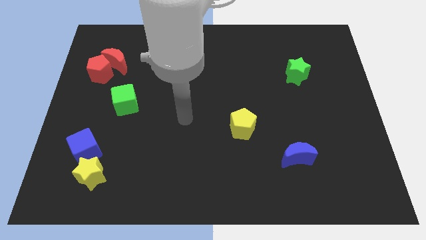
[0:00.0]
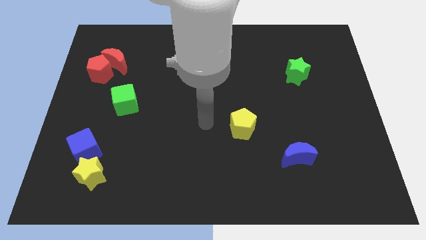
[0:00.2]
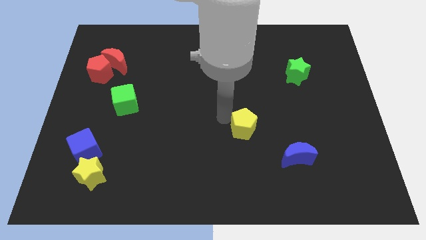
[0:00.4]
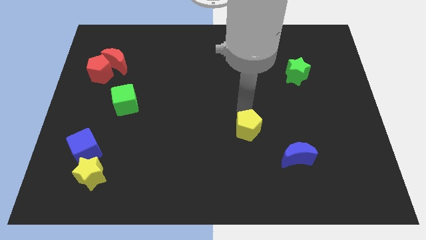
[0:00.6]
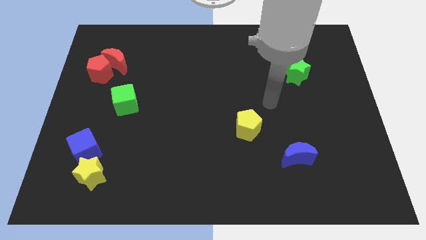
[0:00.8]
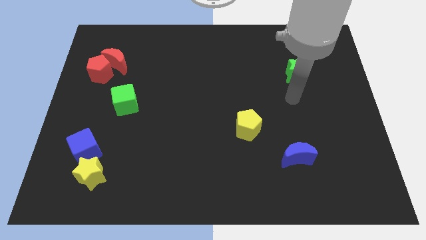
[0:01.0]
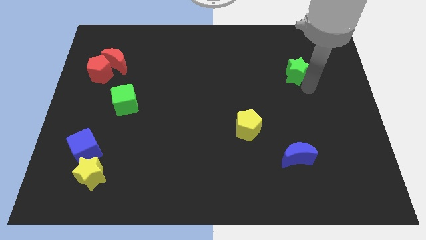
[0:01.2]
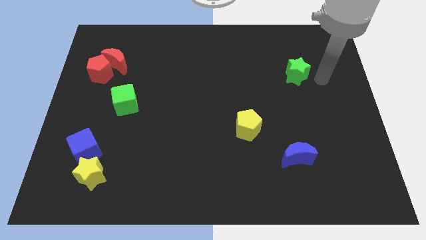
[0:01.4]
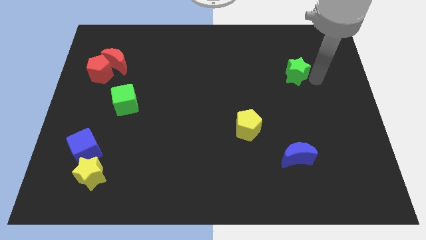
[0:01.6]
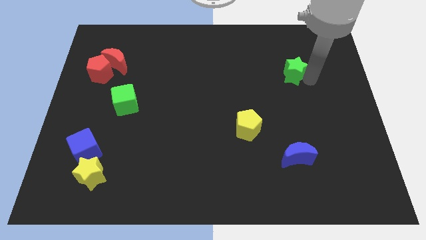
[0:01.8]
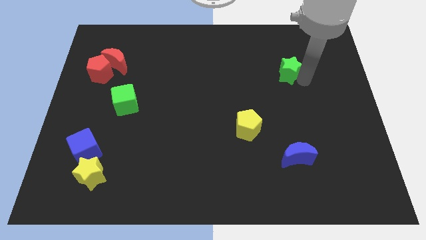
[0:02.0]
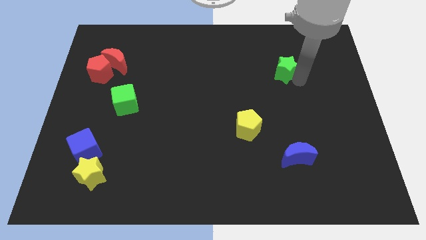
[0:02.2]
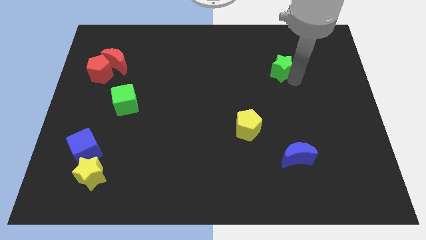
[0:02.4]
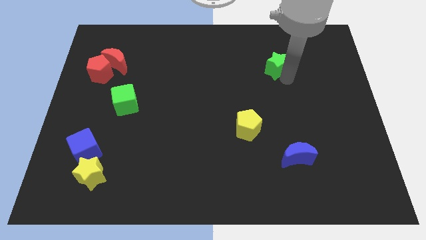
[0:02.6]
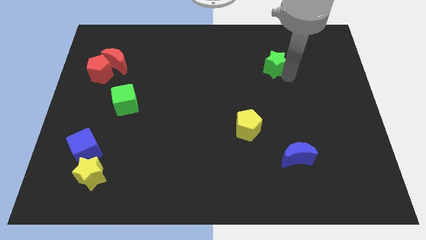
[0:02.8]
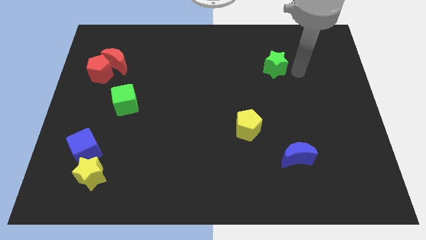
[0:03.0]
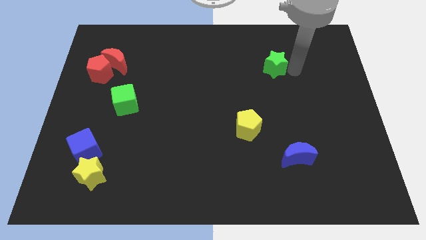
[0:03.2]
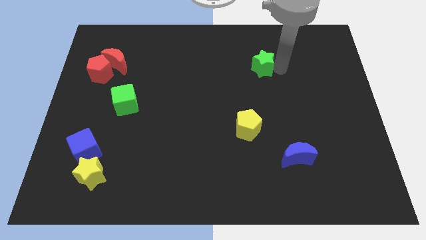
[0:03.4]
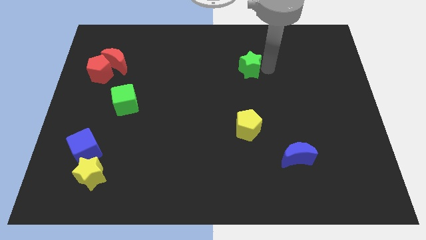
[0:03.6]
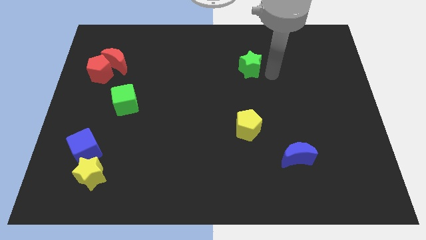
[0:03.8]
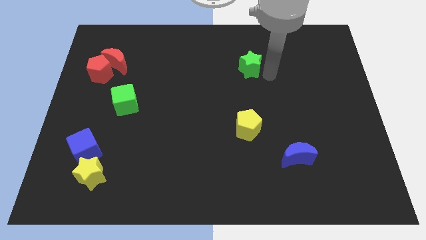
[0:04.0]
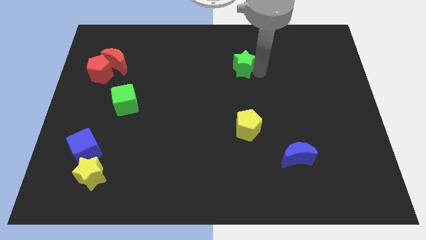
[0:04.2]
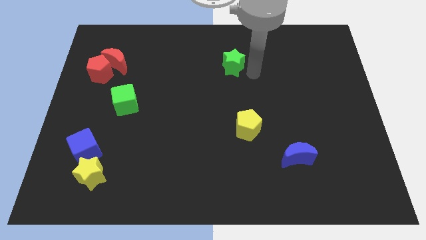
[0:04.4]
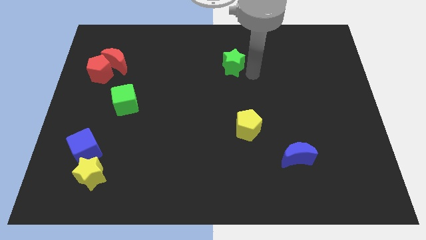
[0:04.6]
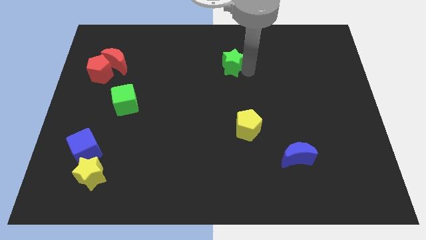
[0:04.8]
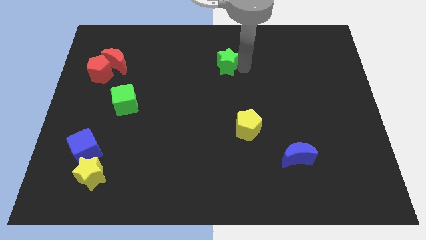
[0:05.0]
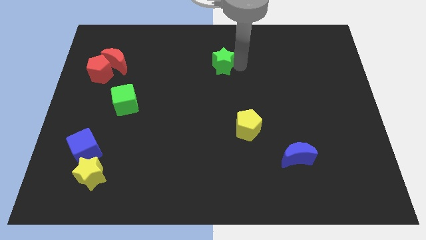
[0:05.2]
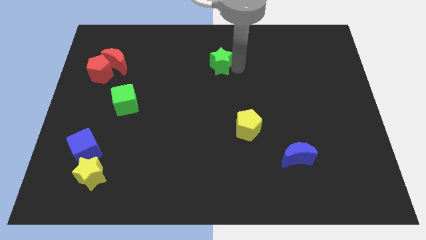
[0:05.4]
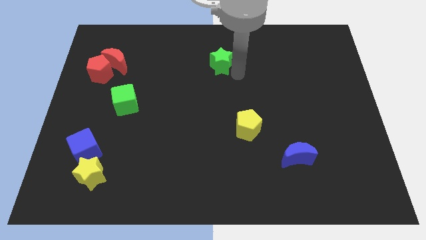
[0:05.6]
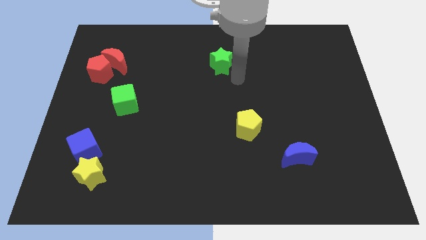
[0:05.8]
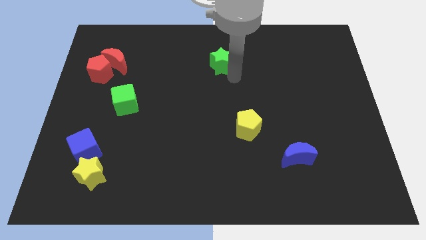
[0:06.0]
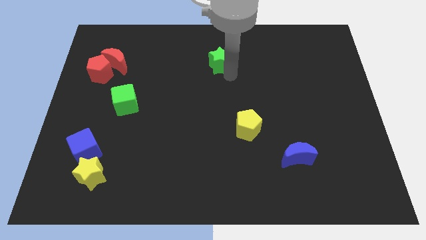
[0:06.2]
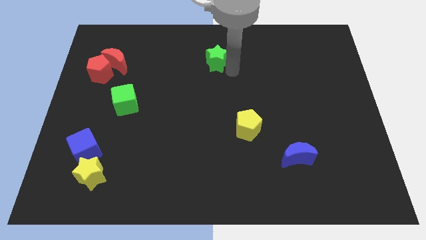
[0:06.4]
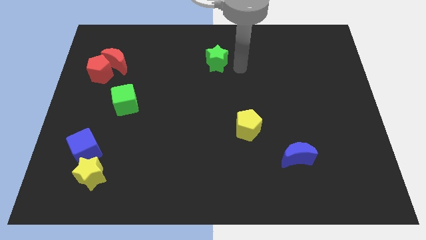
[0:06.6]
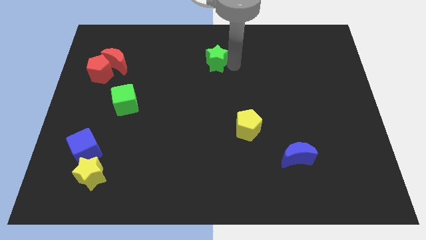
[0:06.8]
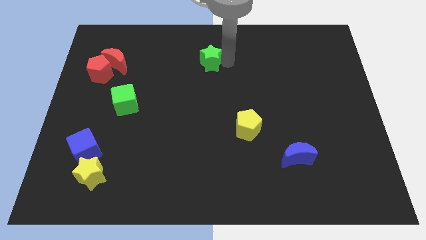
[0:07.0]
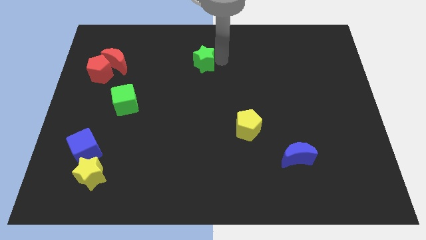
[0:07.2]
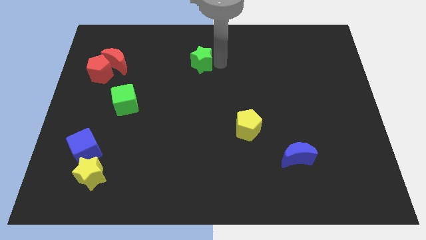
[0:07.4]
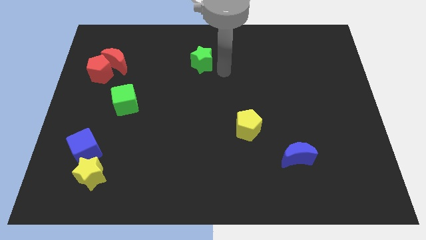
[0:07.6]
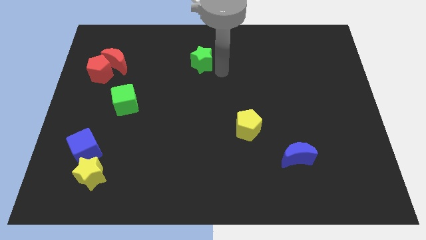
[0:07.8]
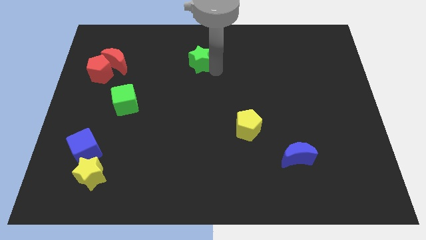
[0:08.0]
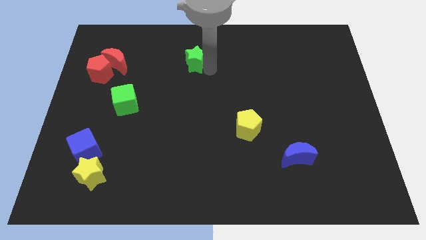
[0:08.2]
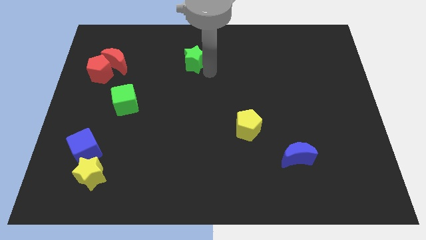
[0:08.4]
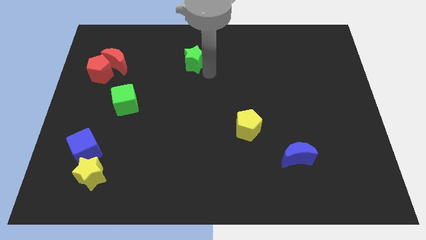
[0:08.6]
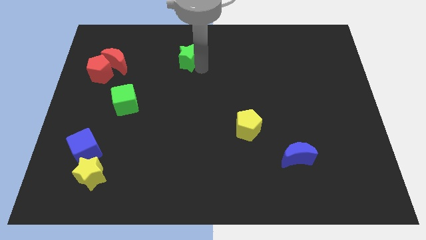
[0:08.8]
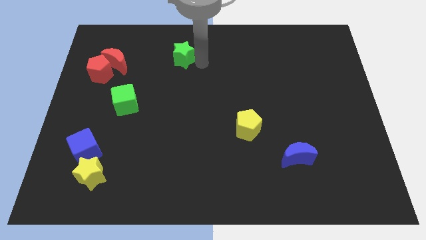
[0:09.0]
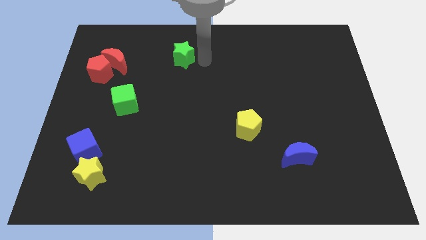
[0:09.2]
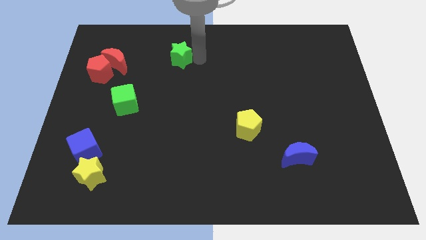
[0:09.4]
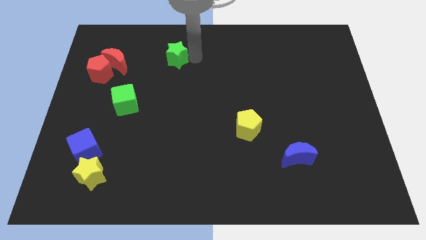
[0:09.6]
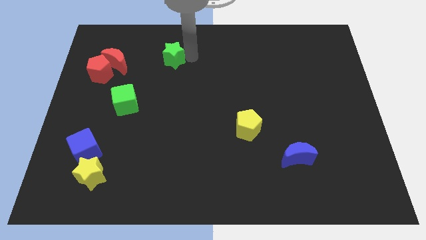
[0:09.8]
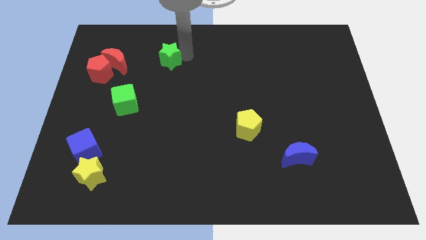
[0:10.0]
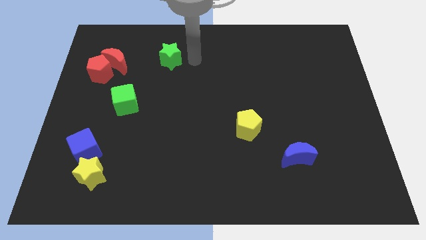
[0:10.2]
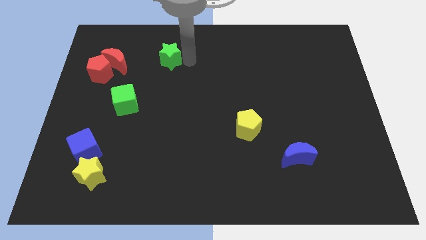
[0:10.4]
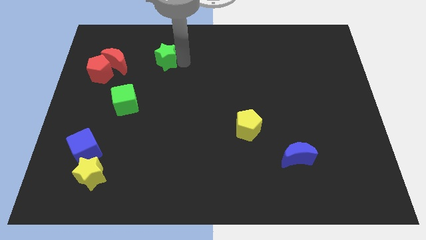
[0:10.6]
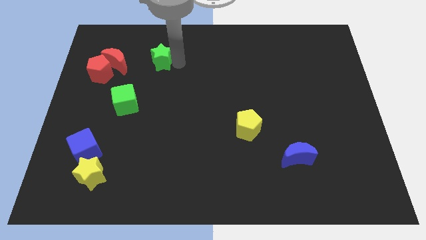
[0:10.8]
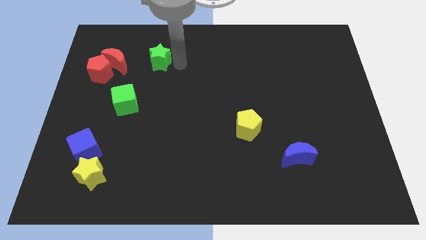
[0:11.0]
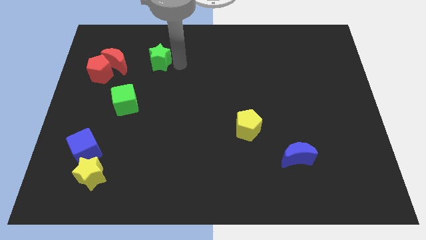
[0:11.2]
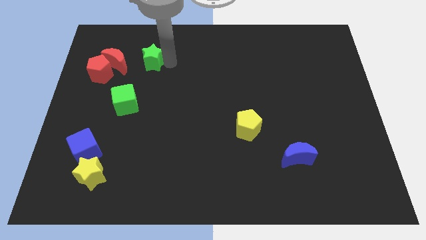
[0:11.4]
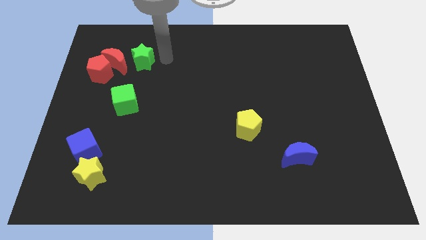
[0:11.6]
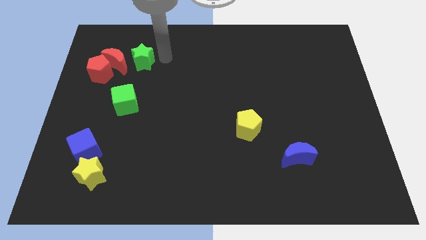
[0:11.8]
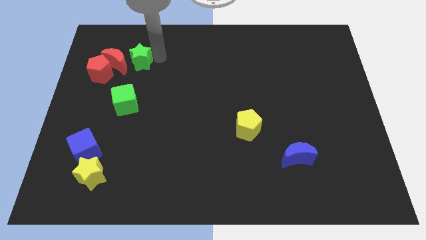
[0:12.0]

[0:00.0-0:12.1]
slide the green star next to the red moon

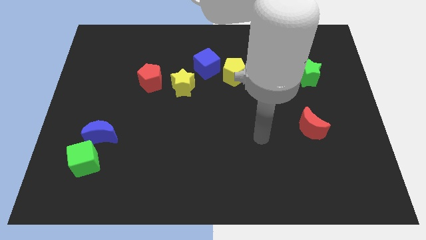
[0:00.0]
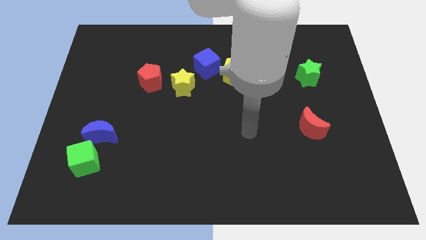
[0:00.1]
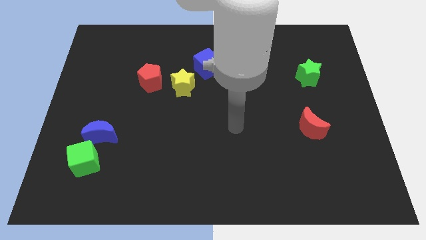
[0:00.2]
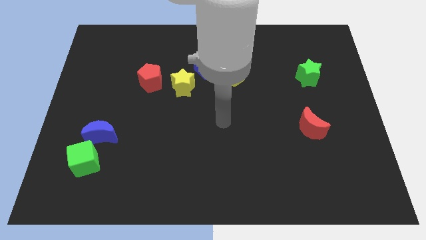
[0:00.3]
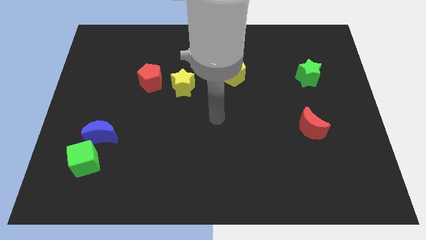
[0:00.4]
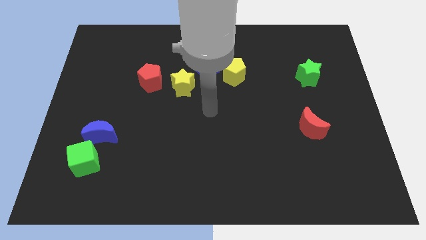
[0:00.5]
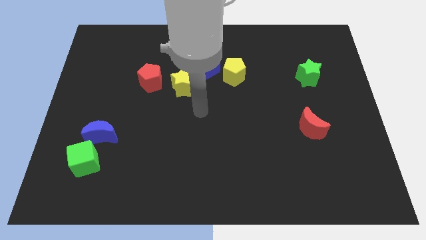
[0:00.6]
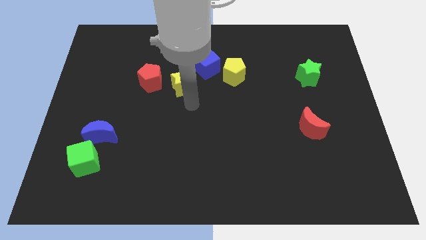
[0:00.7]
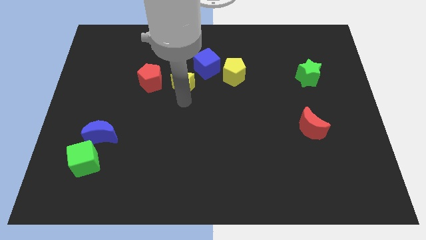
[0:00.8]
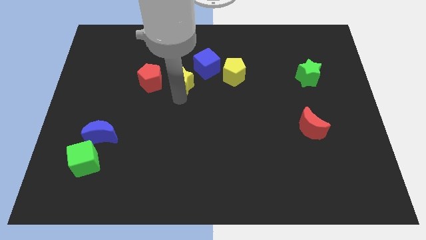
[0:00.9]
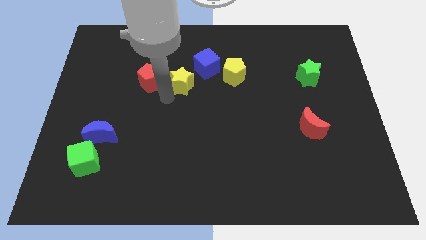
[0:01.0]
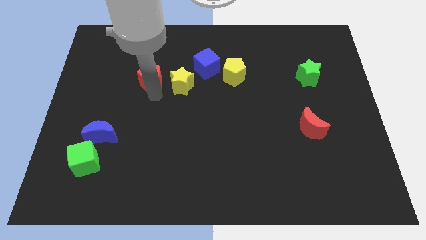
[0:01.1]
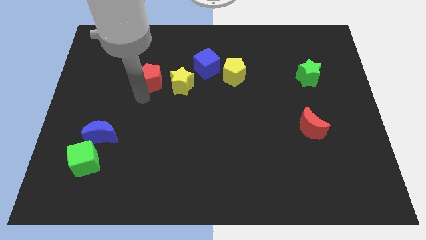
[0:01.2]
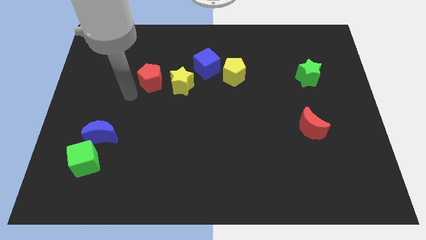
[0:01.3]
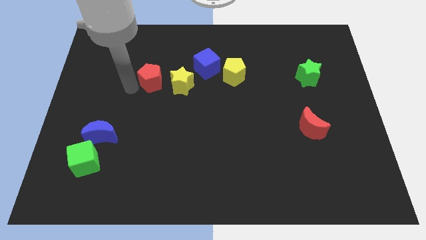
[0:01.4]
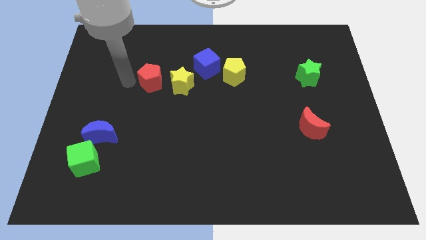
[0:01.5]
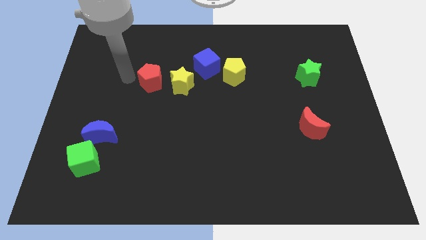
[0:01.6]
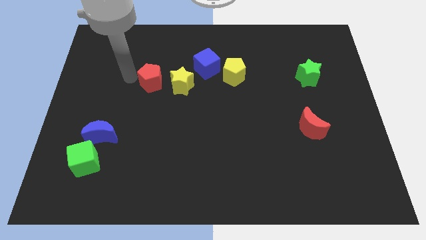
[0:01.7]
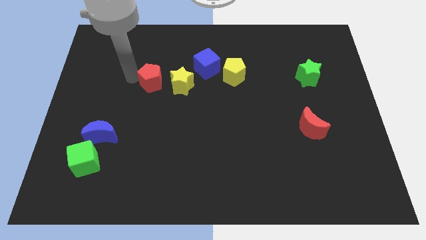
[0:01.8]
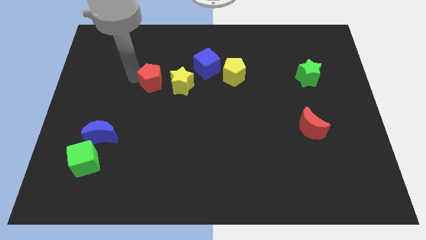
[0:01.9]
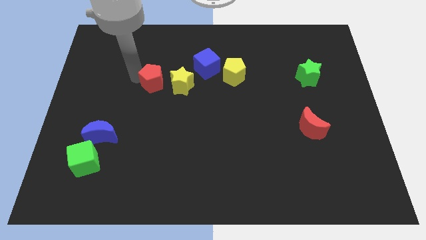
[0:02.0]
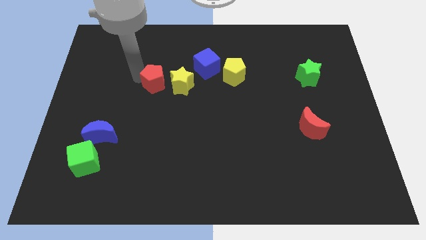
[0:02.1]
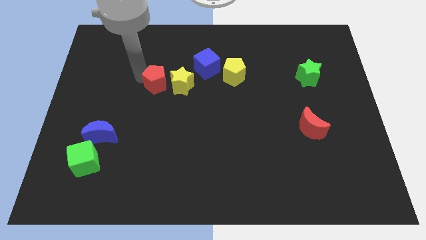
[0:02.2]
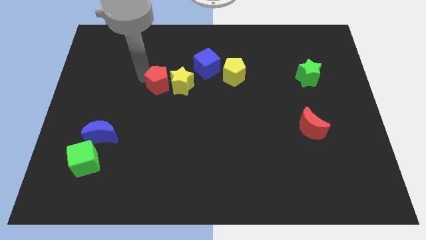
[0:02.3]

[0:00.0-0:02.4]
put the red pentagon close to the yellow star
